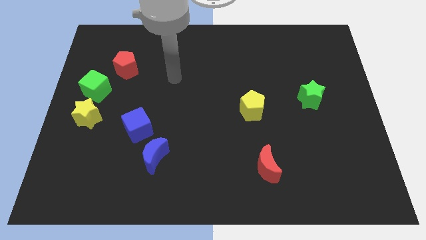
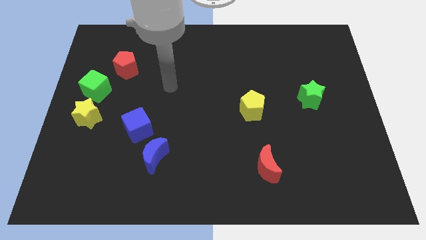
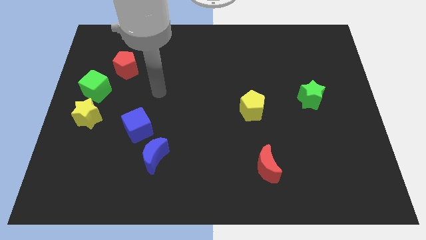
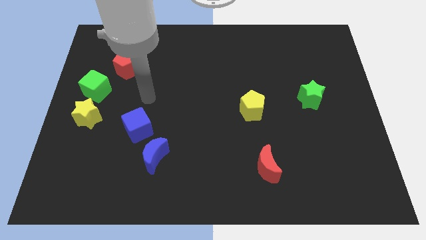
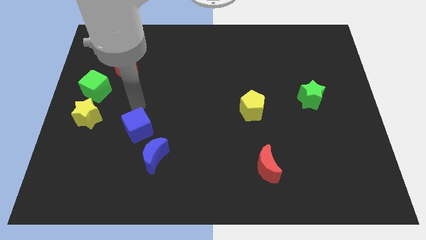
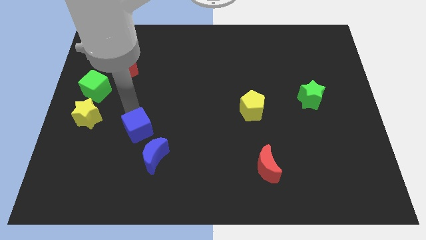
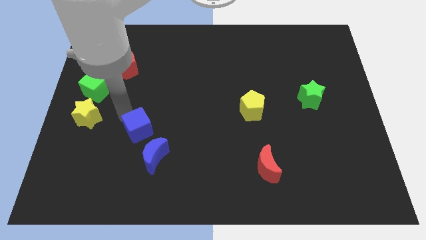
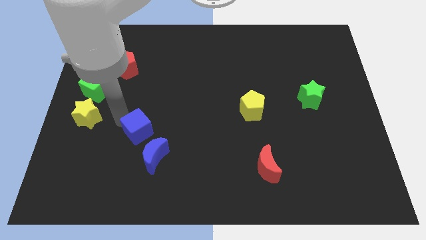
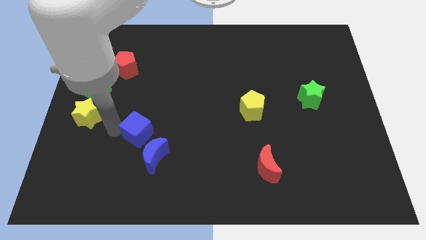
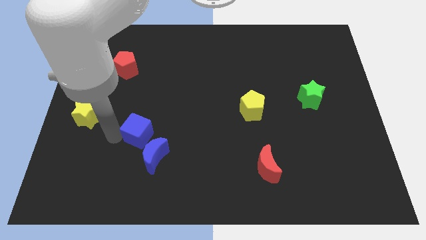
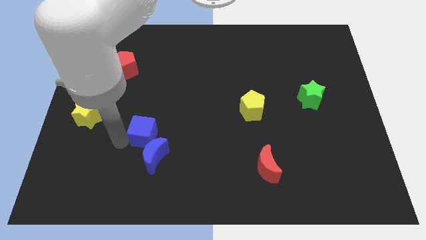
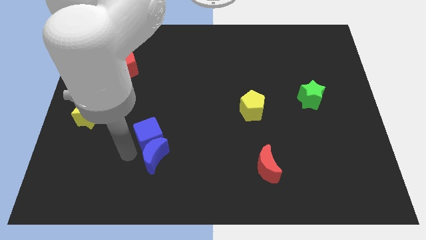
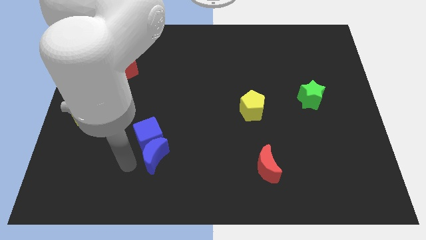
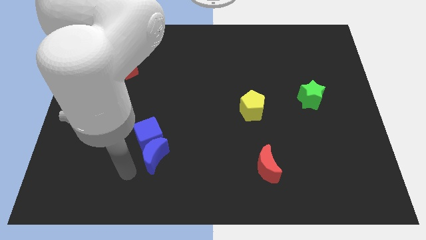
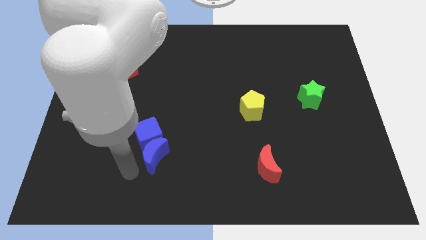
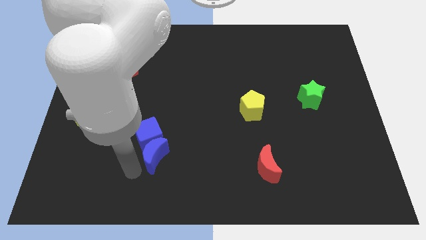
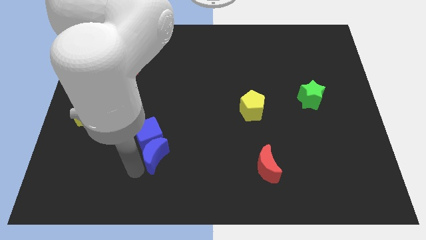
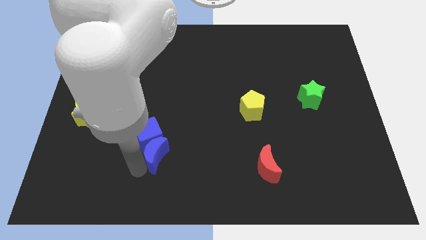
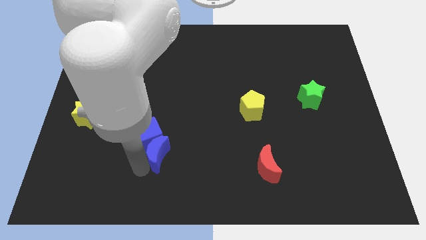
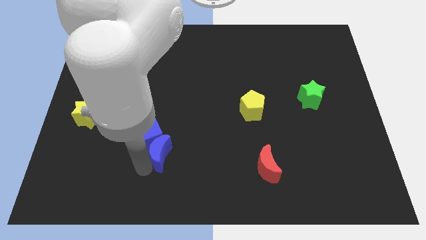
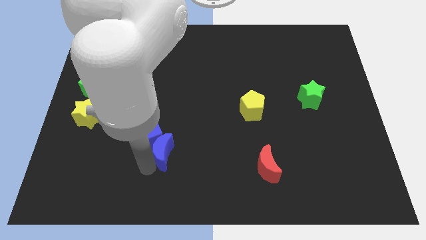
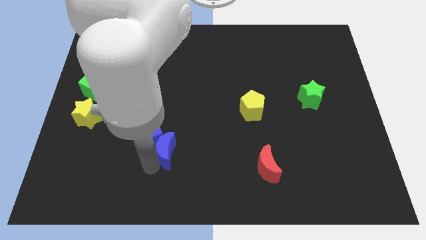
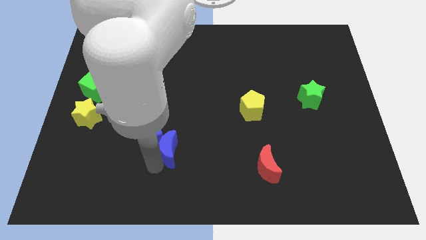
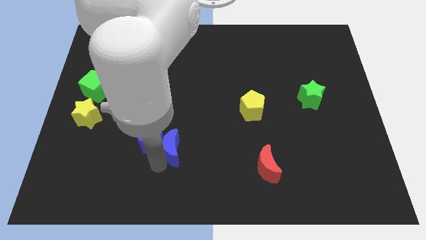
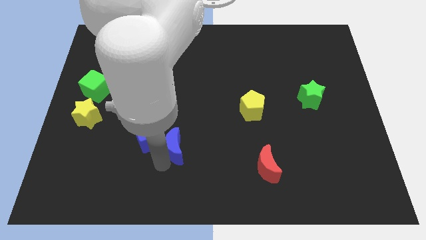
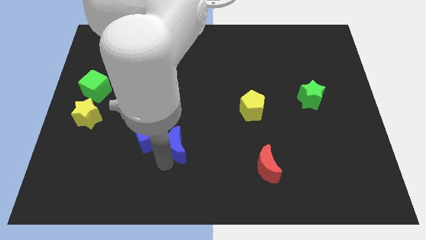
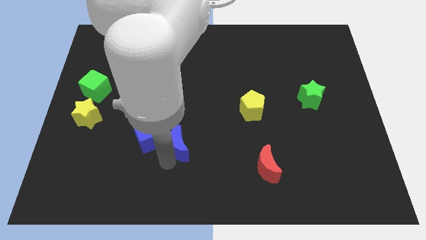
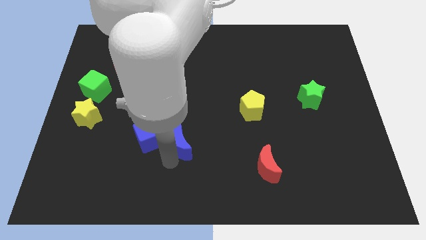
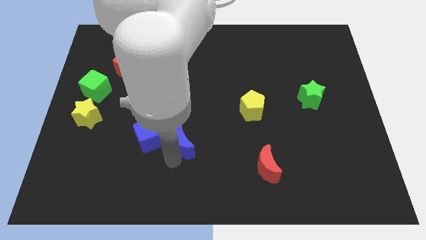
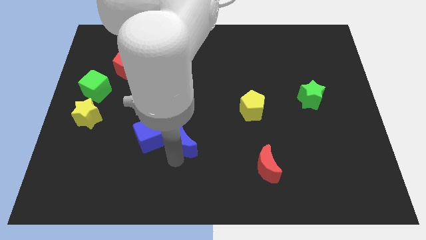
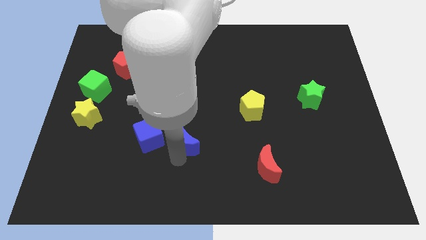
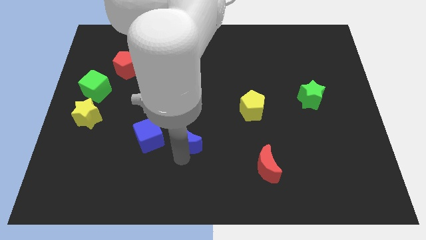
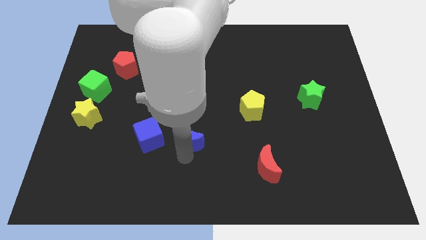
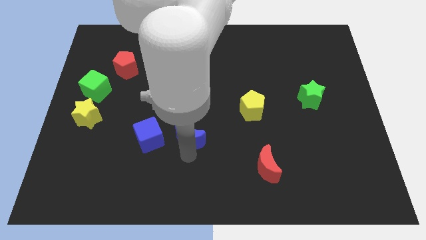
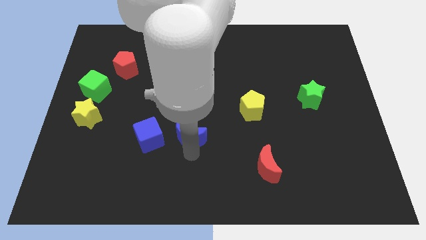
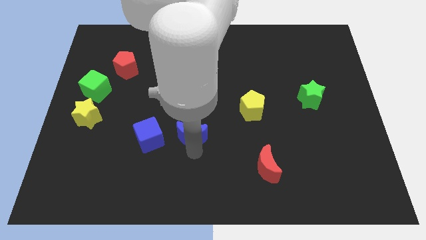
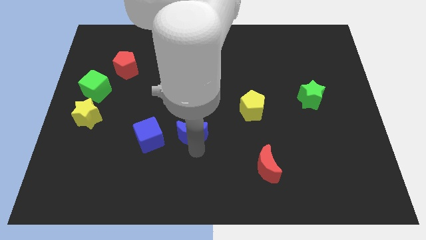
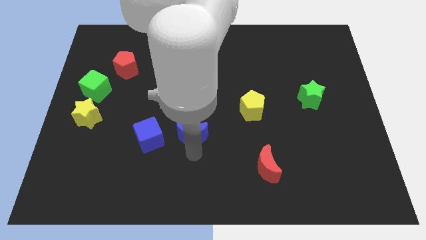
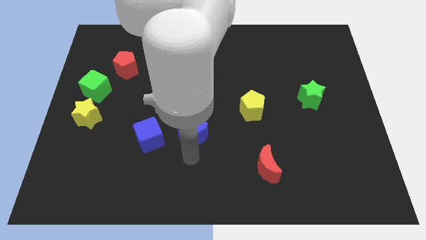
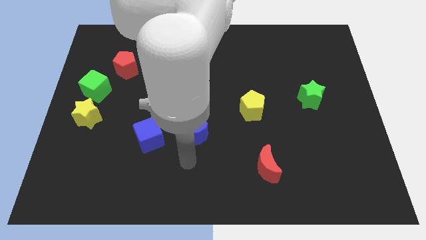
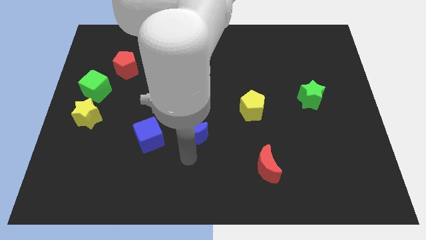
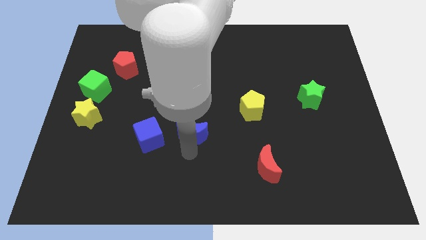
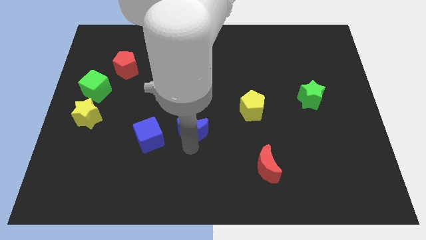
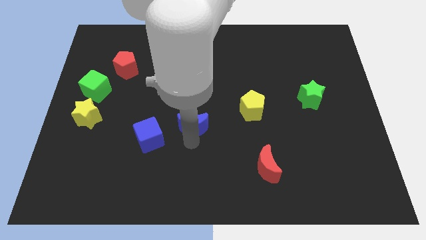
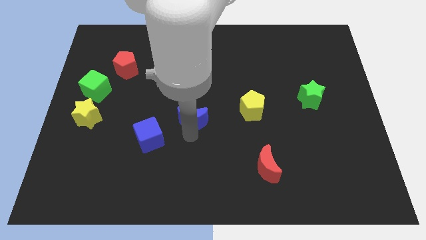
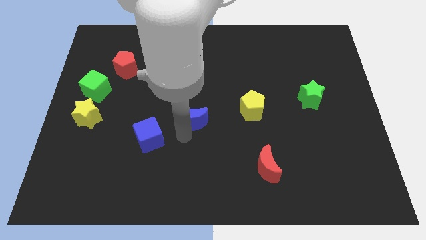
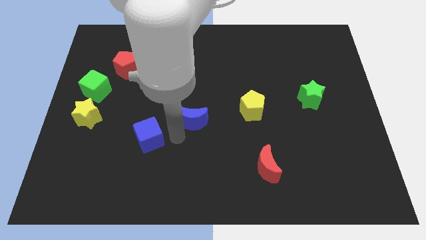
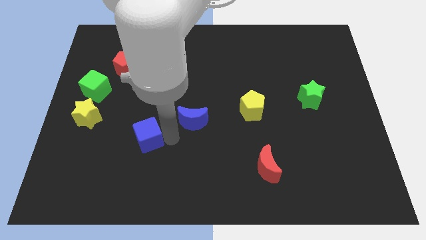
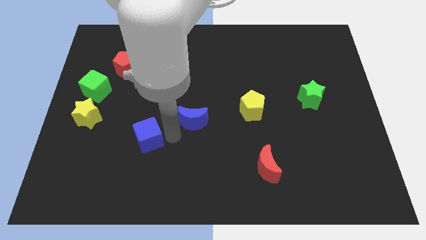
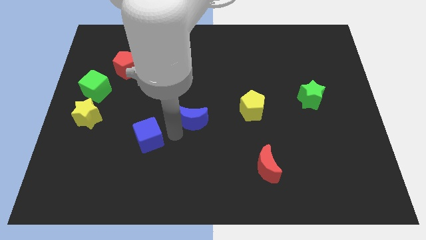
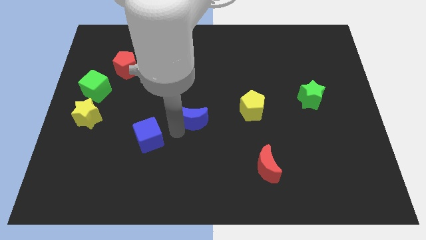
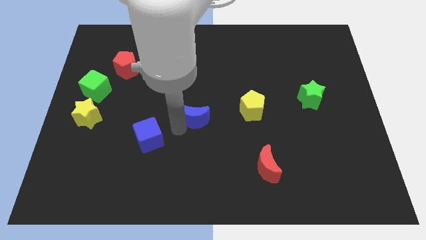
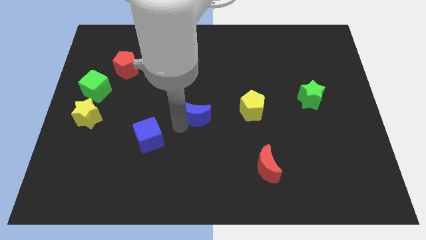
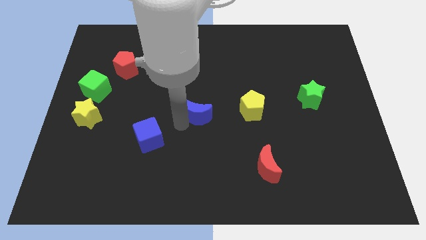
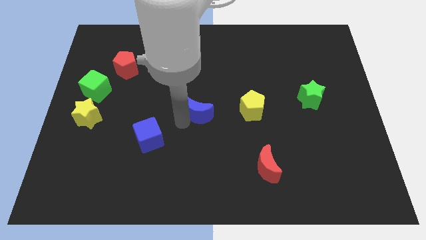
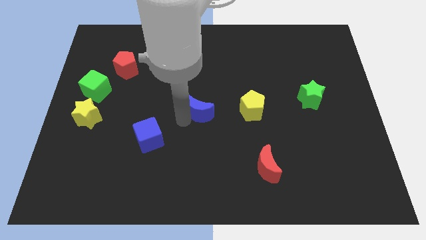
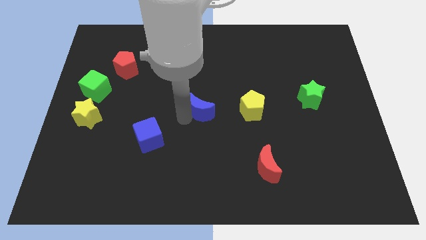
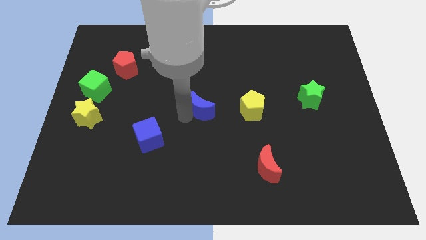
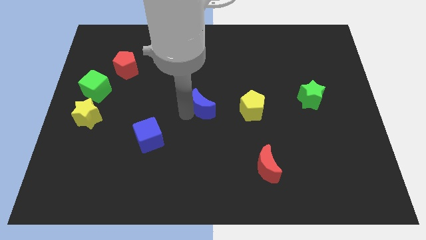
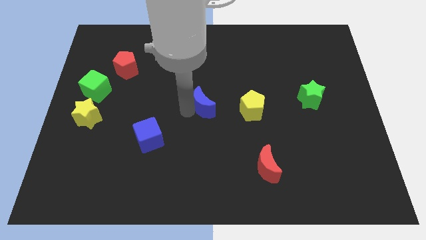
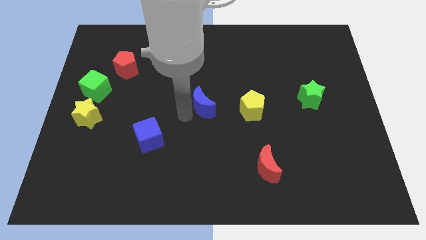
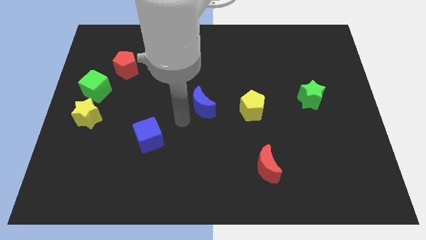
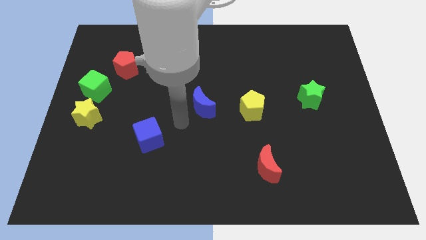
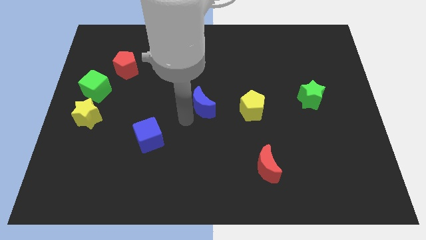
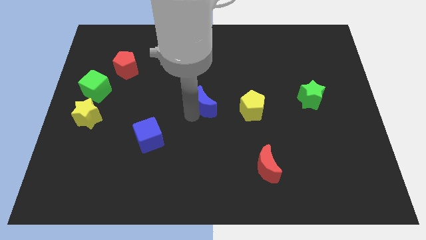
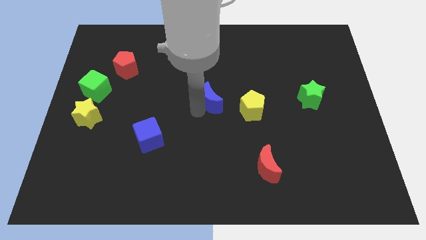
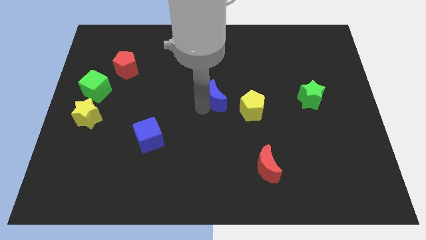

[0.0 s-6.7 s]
slide the blue moon up and right

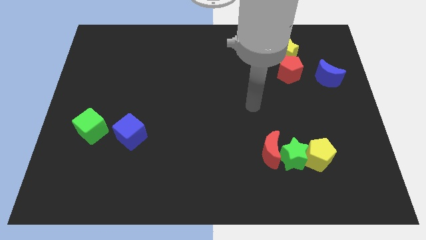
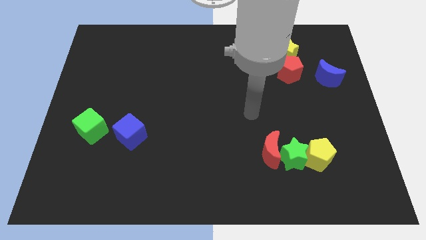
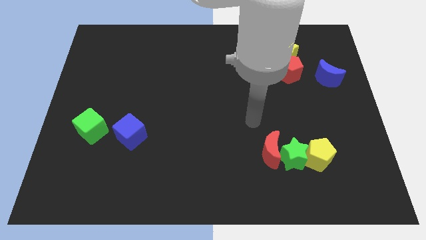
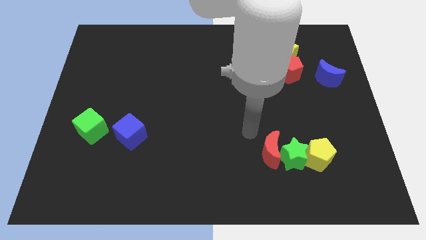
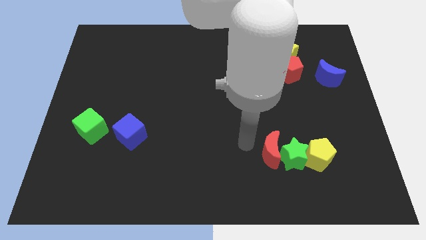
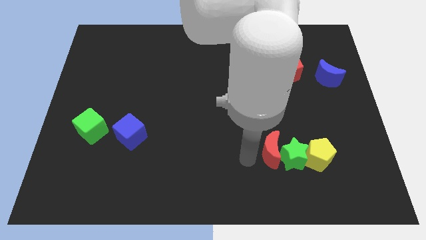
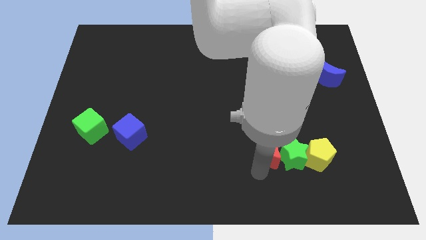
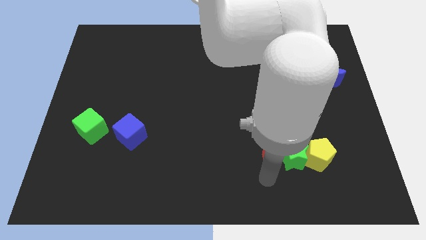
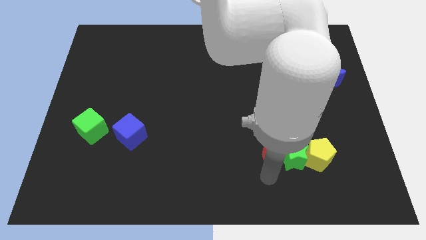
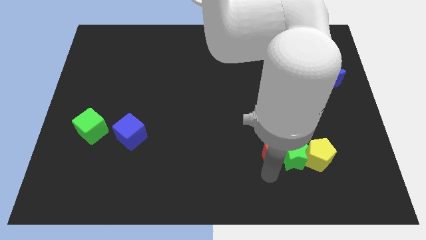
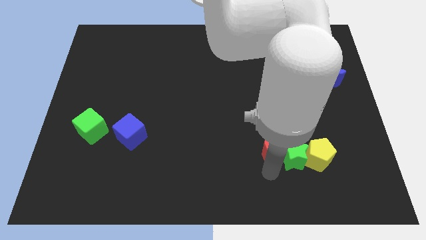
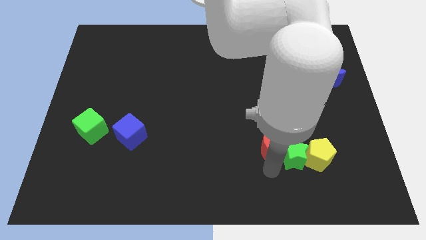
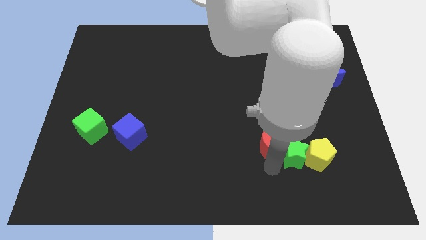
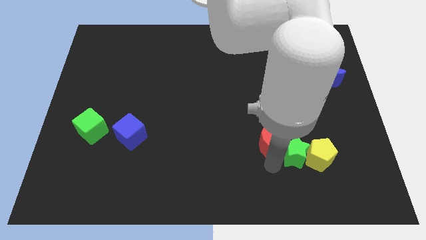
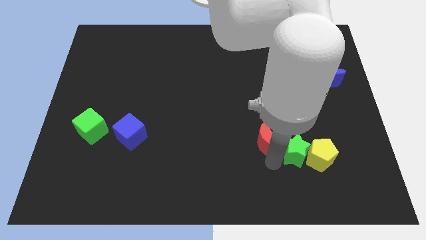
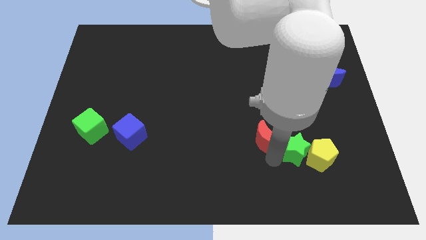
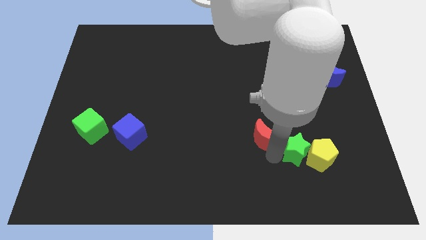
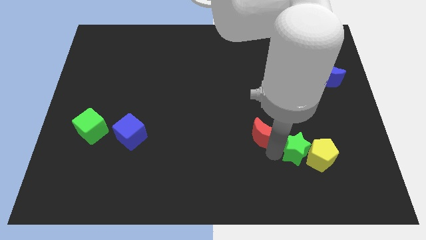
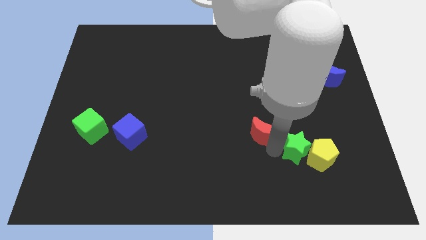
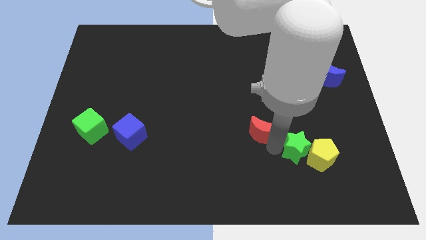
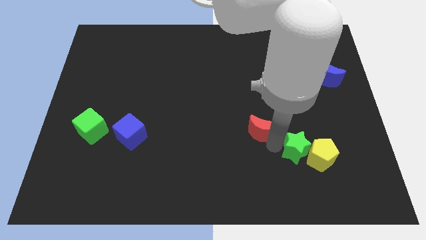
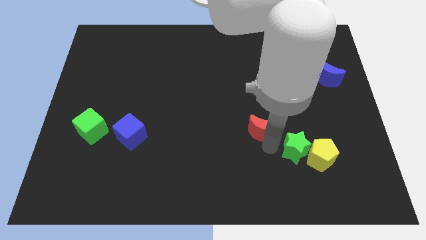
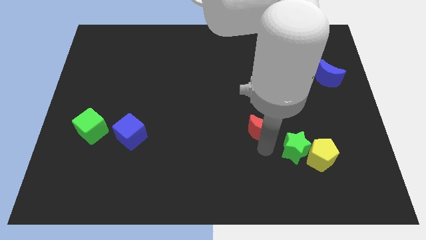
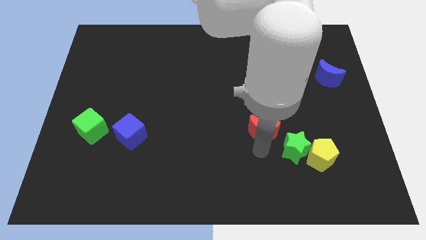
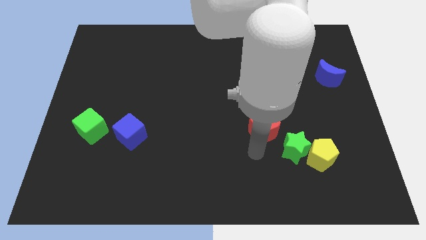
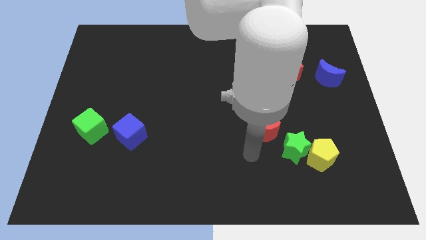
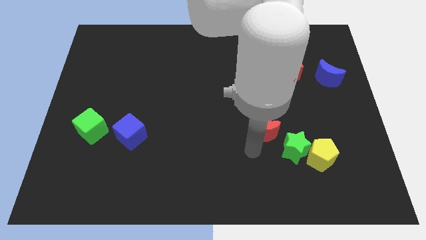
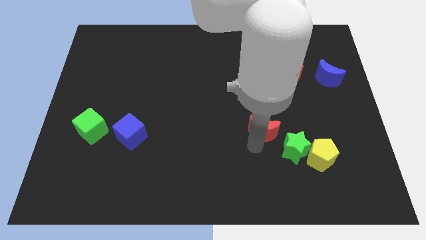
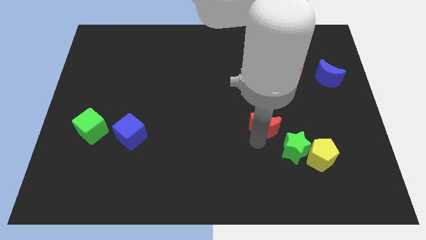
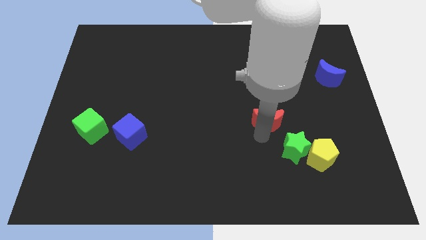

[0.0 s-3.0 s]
slide the red moon up a bit
